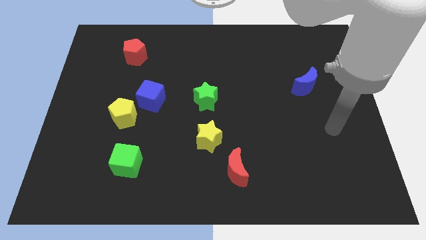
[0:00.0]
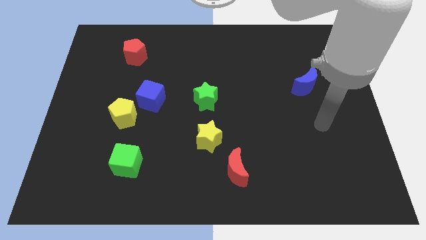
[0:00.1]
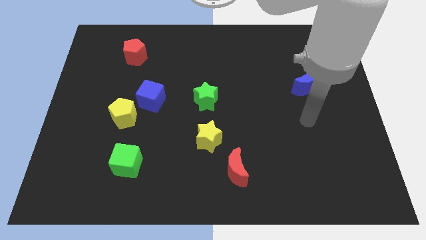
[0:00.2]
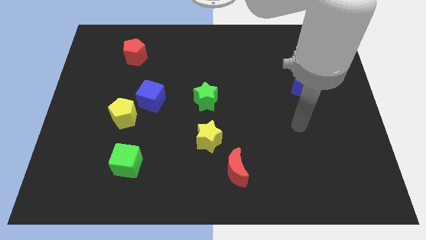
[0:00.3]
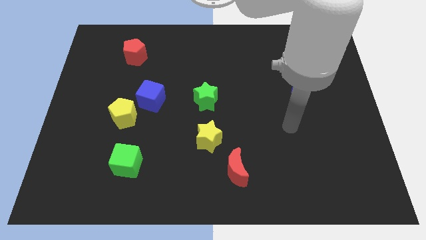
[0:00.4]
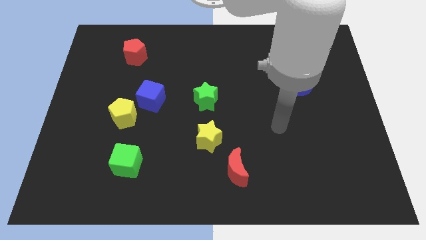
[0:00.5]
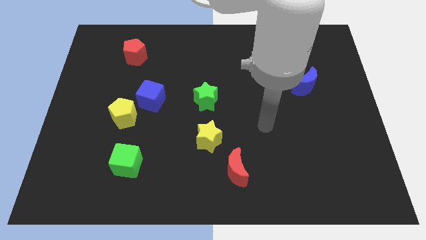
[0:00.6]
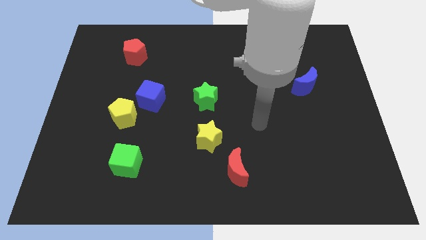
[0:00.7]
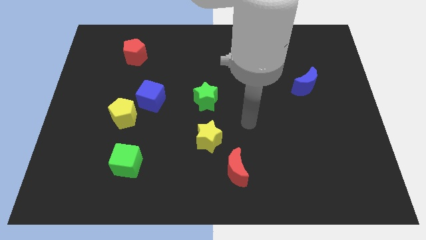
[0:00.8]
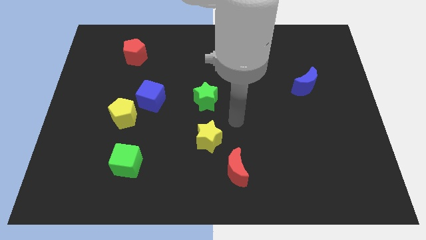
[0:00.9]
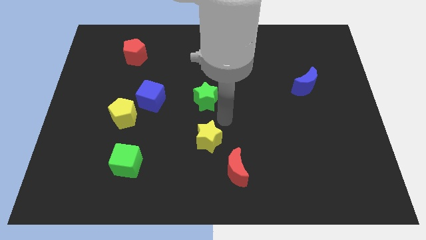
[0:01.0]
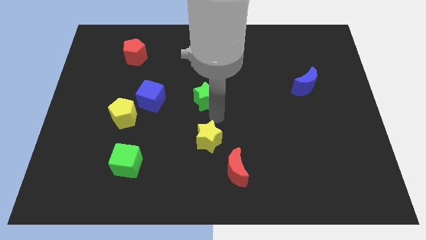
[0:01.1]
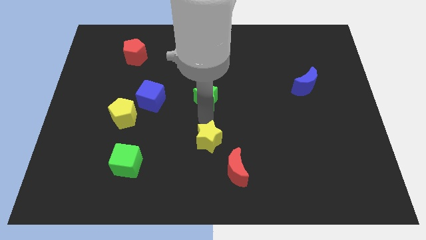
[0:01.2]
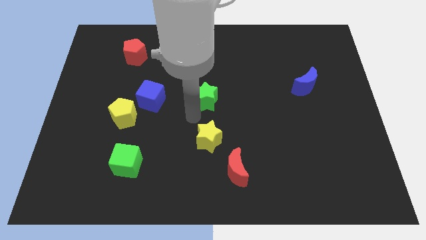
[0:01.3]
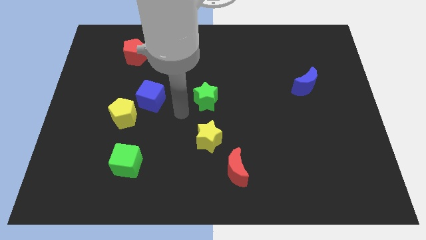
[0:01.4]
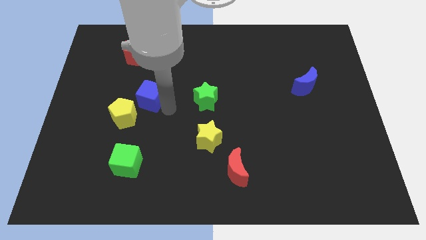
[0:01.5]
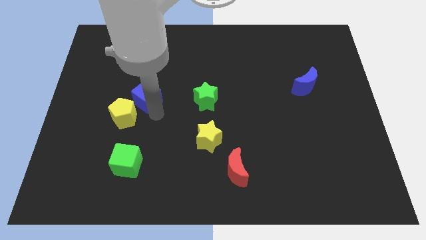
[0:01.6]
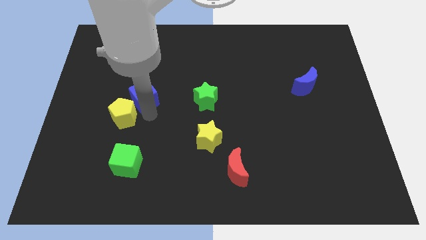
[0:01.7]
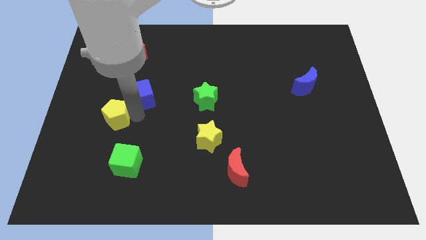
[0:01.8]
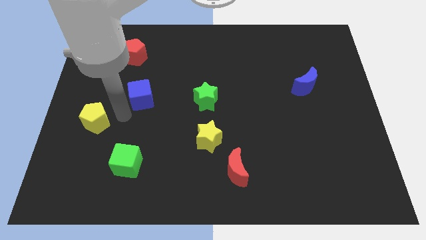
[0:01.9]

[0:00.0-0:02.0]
pull the blue cube apart from the yellow pentagon

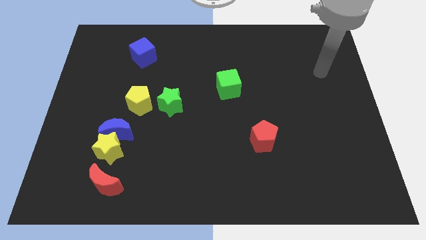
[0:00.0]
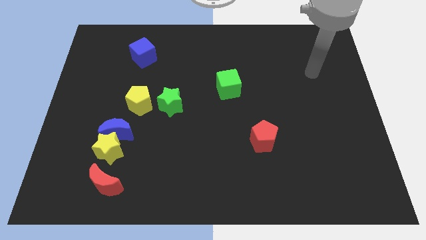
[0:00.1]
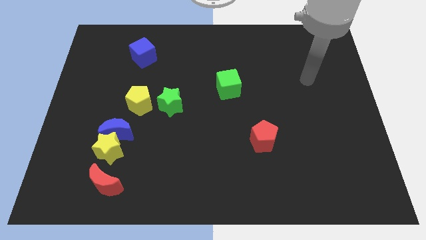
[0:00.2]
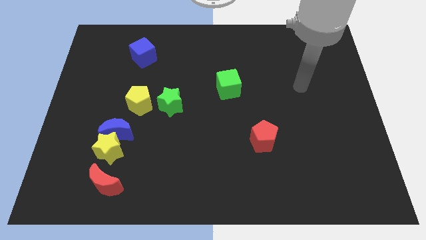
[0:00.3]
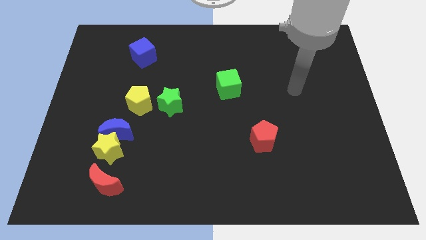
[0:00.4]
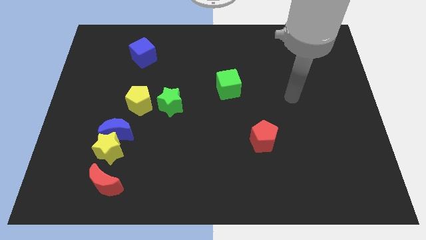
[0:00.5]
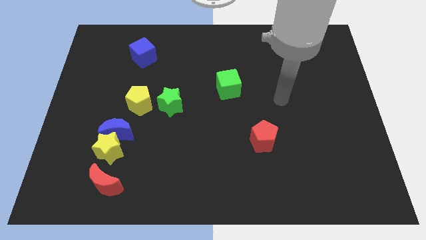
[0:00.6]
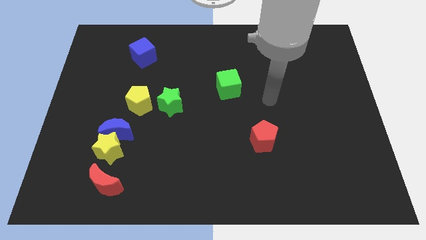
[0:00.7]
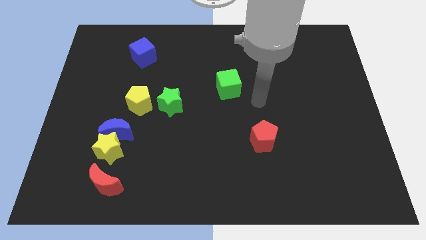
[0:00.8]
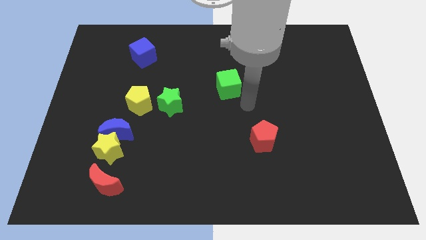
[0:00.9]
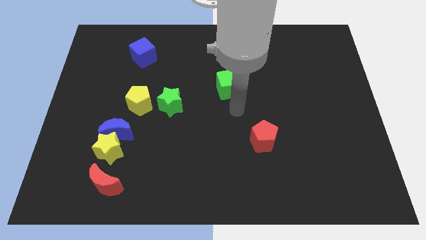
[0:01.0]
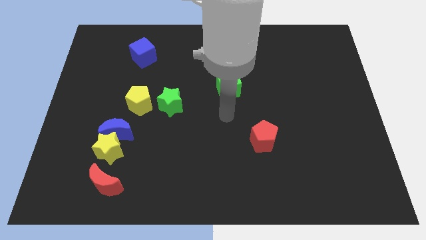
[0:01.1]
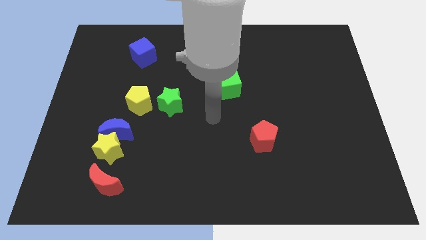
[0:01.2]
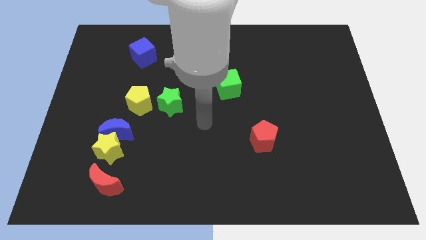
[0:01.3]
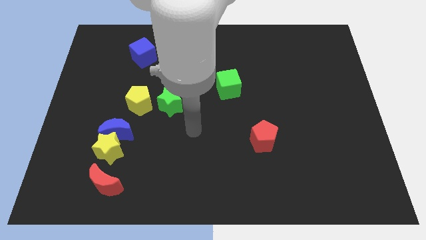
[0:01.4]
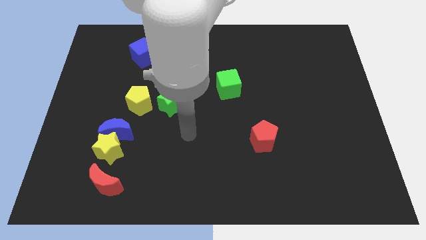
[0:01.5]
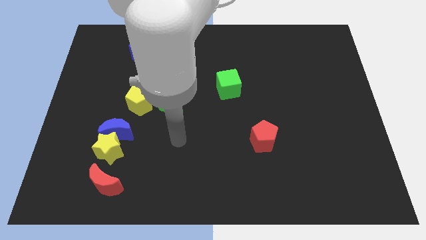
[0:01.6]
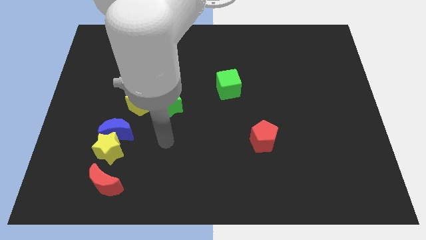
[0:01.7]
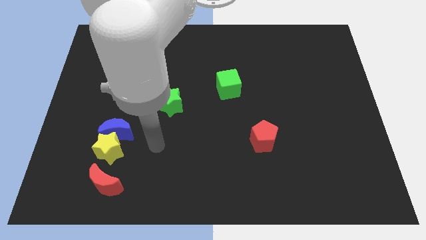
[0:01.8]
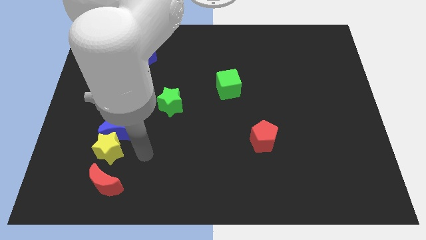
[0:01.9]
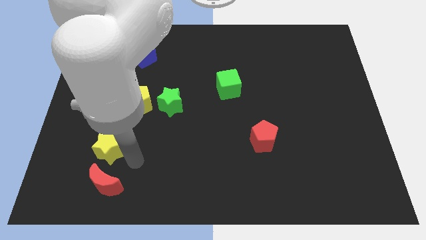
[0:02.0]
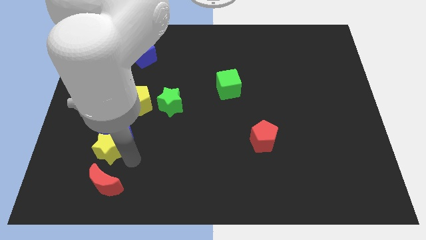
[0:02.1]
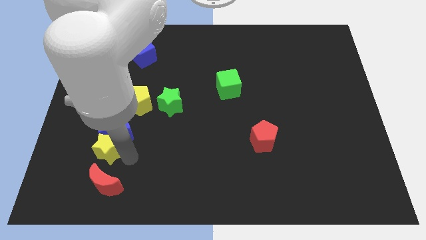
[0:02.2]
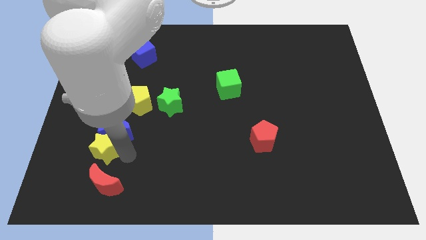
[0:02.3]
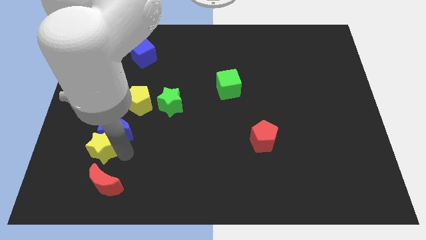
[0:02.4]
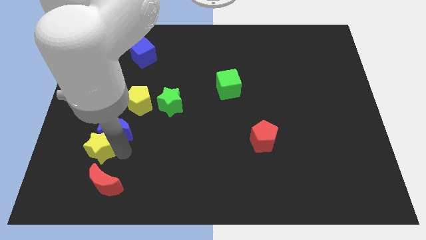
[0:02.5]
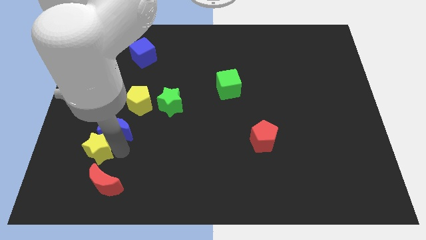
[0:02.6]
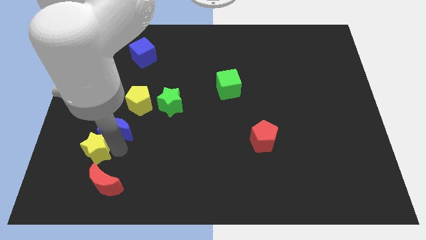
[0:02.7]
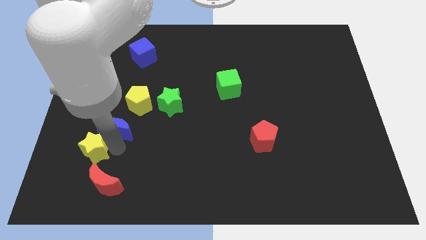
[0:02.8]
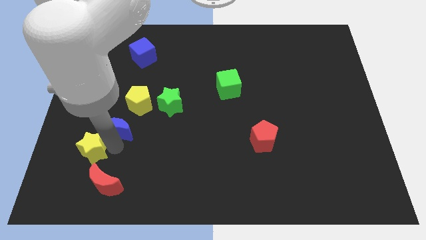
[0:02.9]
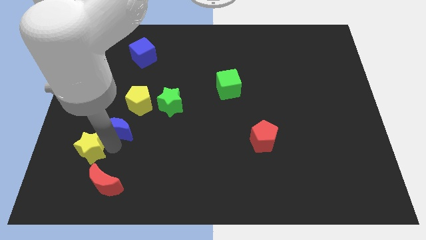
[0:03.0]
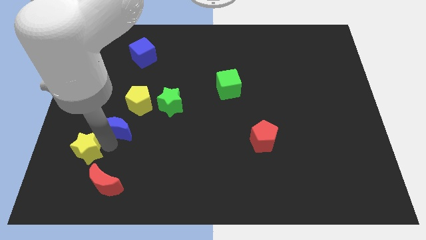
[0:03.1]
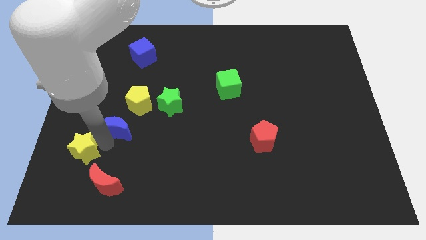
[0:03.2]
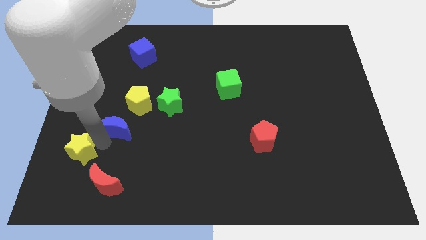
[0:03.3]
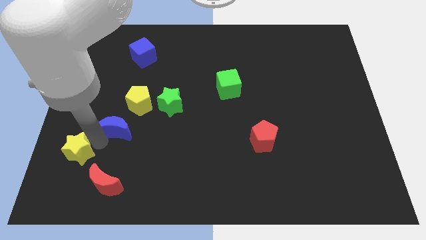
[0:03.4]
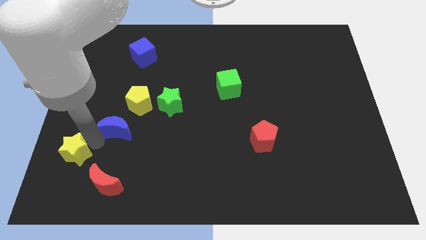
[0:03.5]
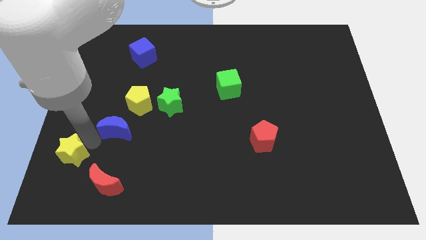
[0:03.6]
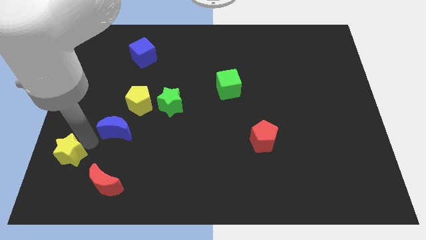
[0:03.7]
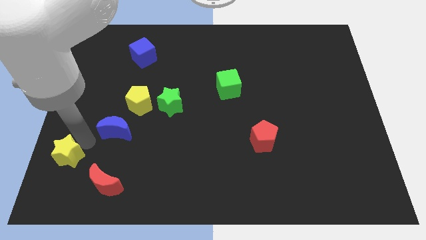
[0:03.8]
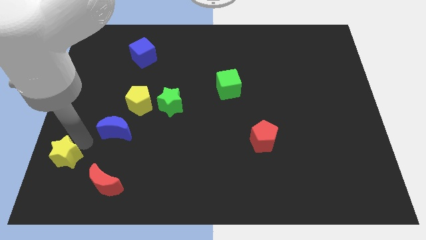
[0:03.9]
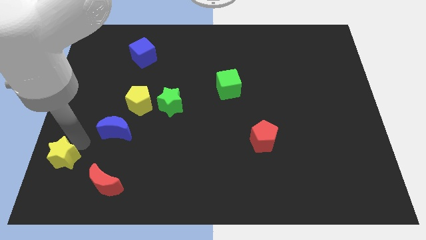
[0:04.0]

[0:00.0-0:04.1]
separate the yellow star from the blue moon and red moon

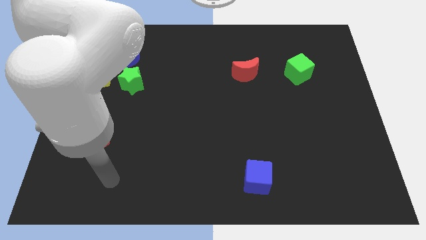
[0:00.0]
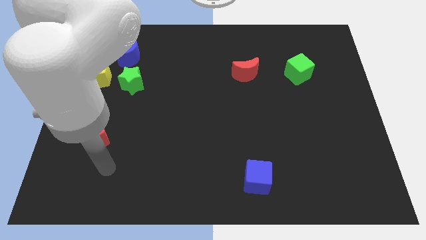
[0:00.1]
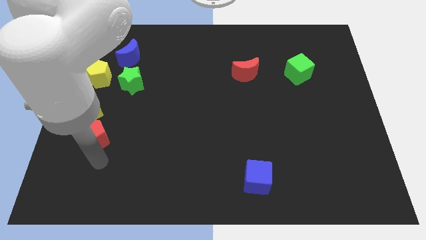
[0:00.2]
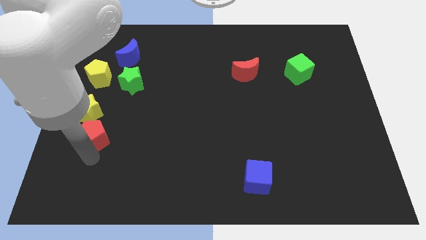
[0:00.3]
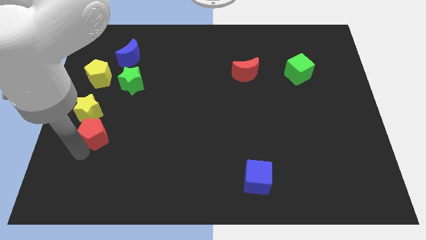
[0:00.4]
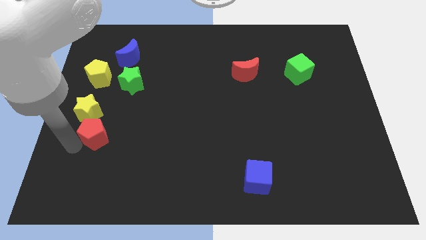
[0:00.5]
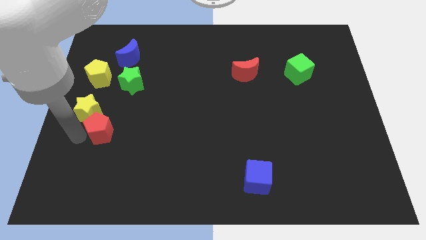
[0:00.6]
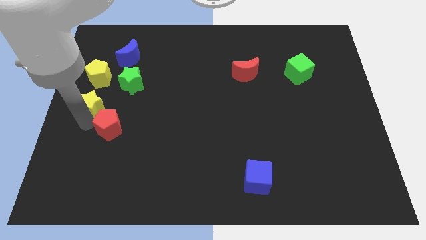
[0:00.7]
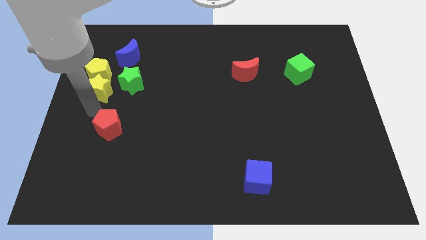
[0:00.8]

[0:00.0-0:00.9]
pull the red pentagon apart from the yellow star

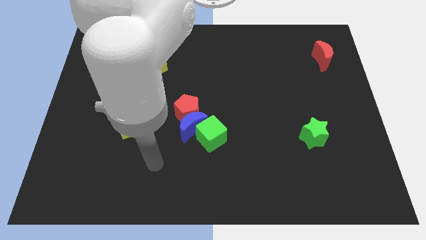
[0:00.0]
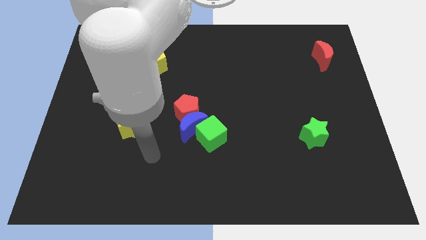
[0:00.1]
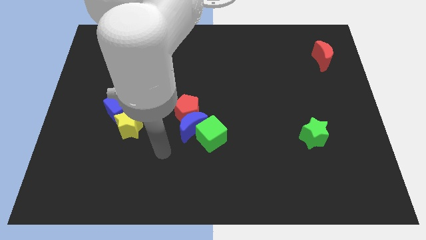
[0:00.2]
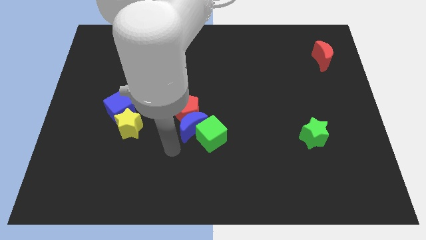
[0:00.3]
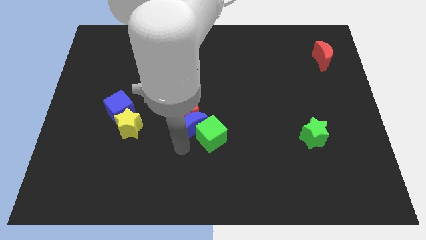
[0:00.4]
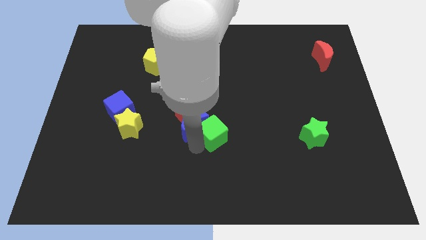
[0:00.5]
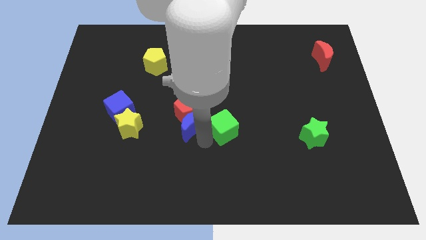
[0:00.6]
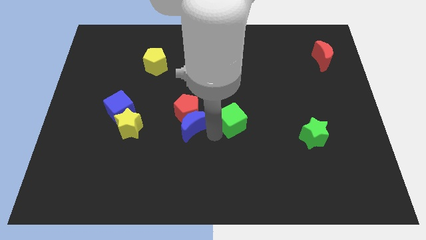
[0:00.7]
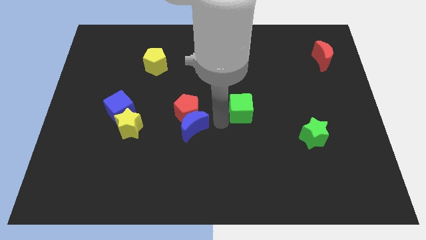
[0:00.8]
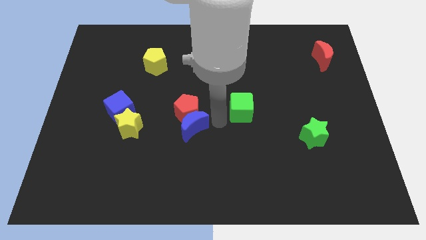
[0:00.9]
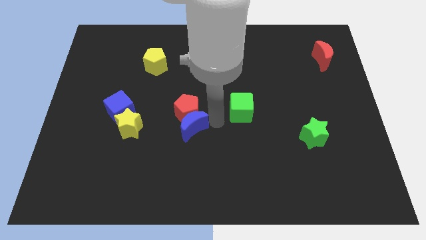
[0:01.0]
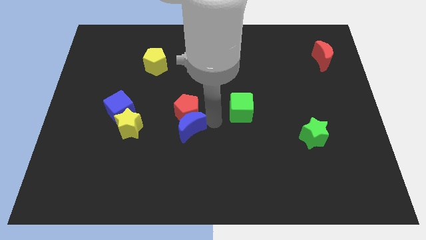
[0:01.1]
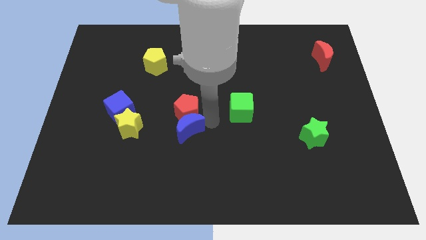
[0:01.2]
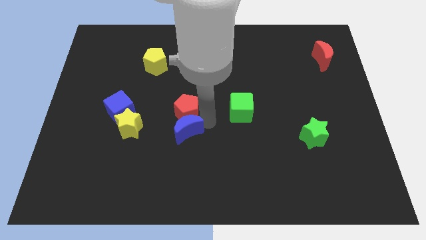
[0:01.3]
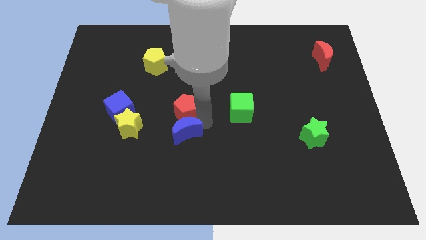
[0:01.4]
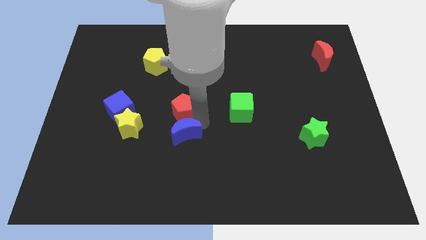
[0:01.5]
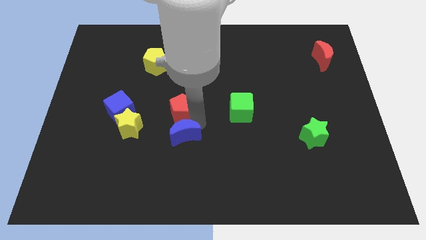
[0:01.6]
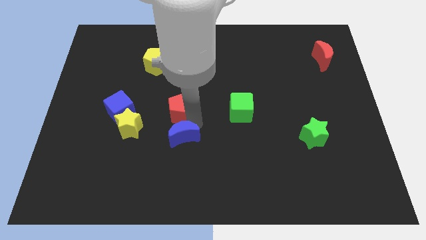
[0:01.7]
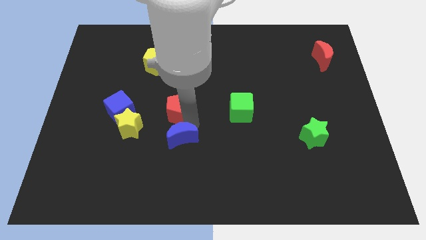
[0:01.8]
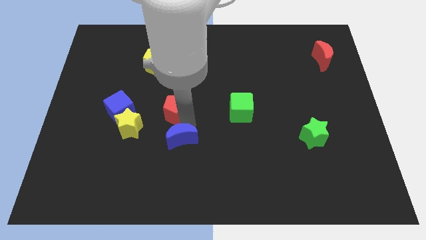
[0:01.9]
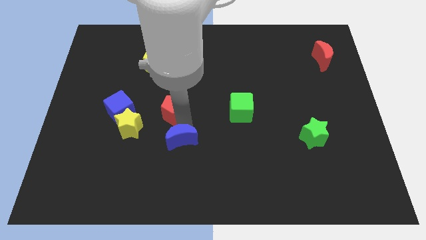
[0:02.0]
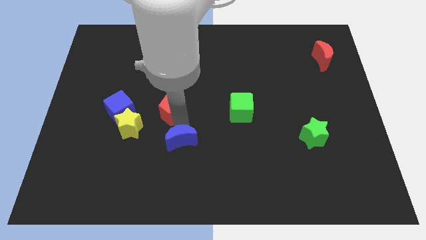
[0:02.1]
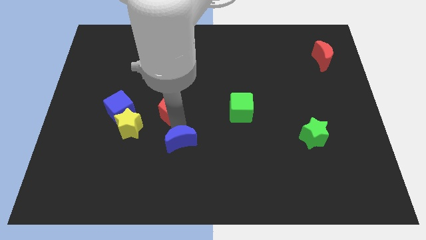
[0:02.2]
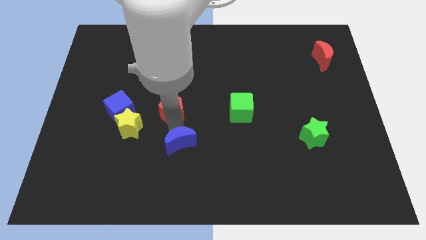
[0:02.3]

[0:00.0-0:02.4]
pull the blue moon apart from the red pentagon and green cube
